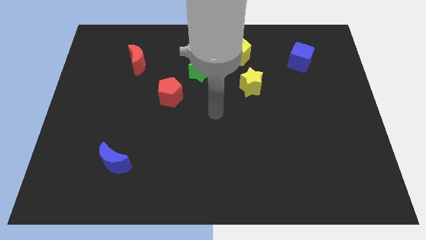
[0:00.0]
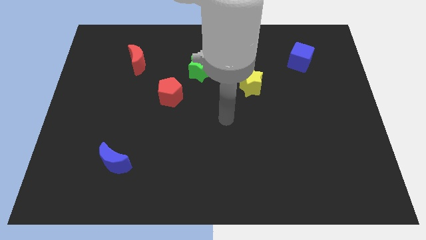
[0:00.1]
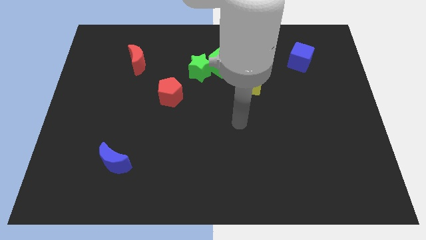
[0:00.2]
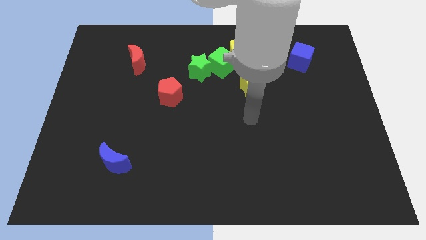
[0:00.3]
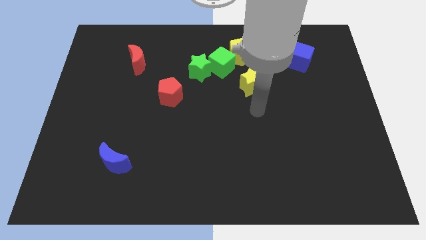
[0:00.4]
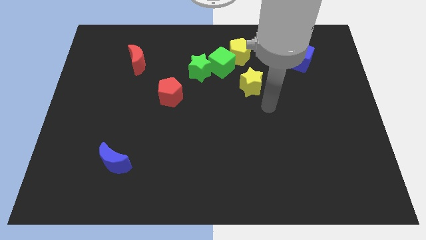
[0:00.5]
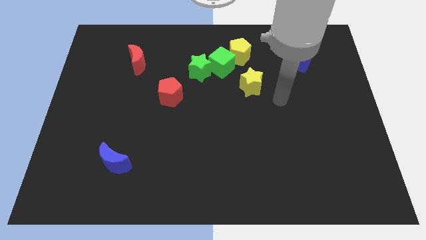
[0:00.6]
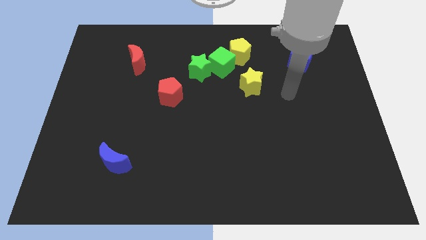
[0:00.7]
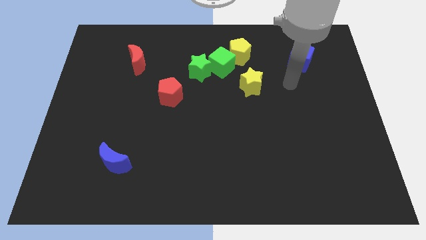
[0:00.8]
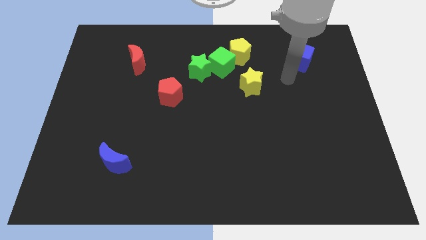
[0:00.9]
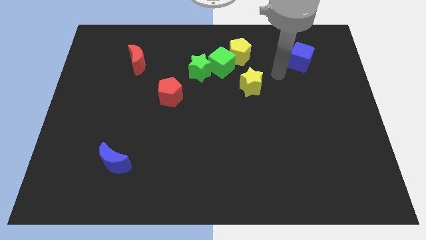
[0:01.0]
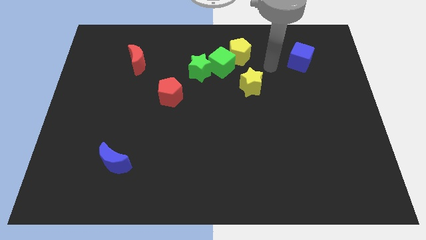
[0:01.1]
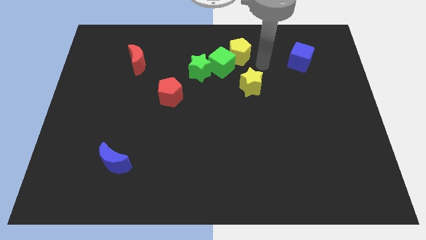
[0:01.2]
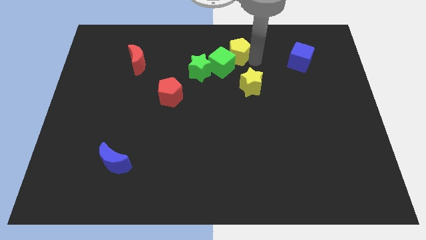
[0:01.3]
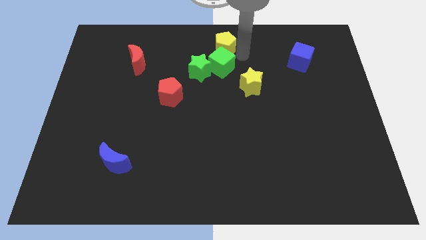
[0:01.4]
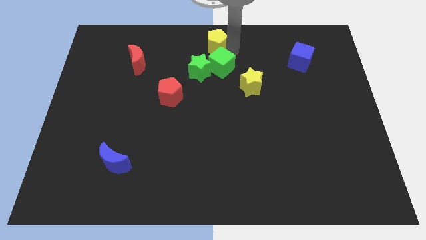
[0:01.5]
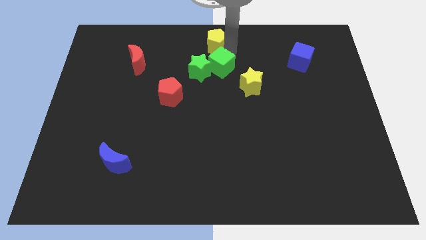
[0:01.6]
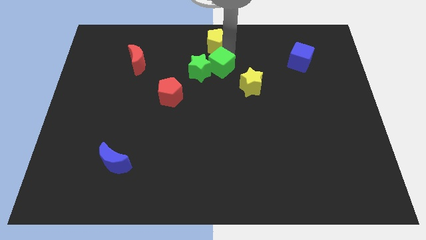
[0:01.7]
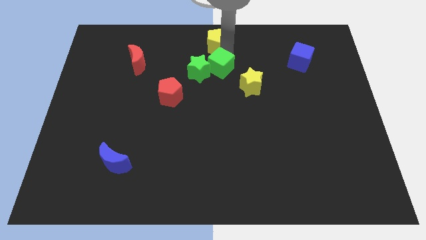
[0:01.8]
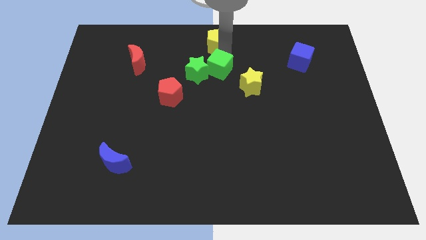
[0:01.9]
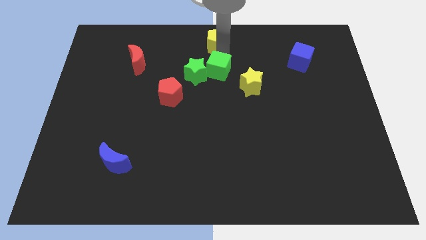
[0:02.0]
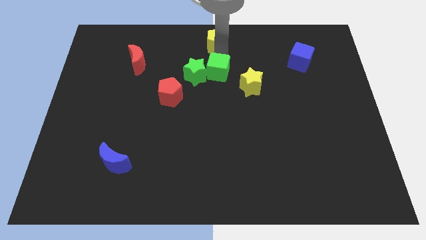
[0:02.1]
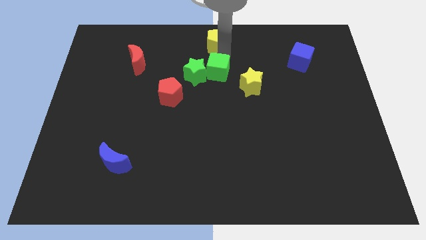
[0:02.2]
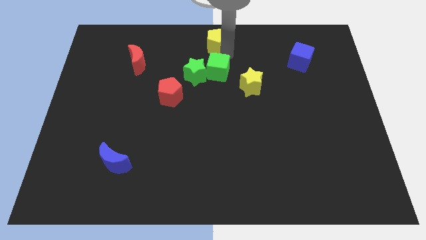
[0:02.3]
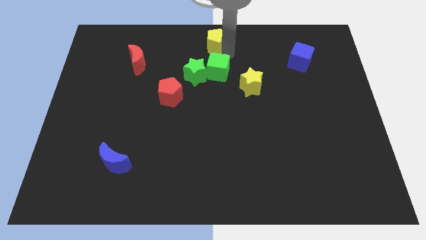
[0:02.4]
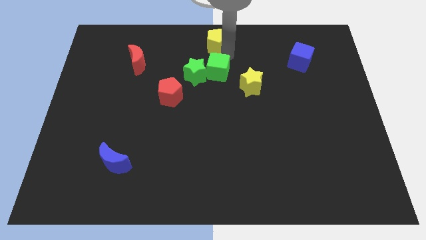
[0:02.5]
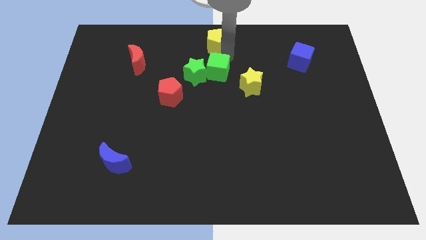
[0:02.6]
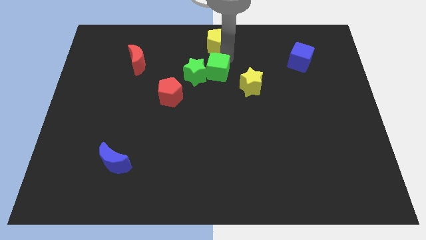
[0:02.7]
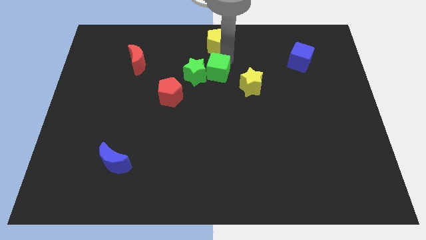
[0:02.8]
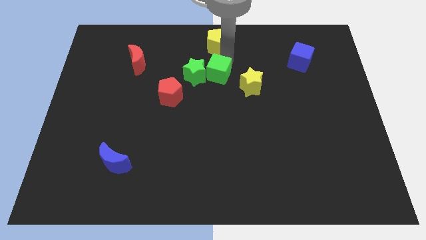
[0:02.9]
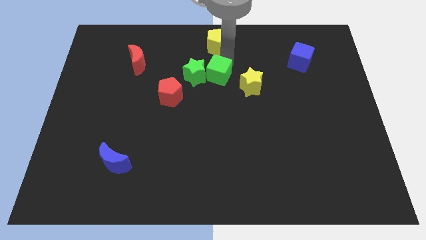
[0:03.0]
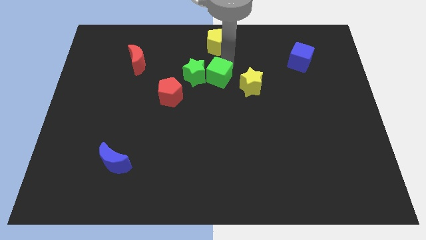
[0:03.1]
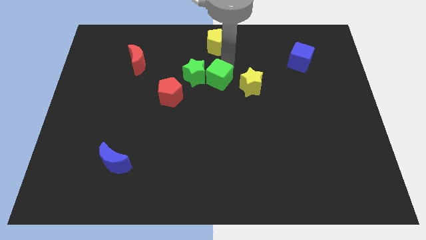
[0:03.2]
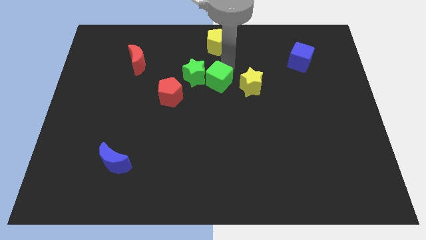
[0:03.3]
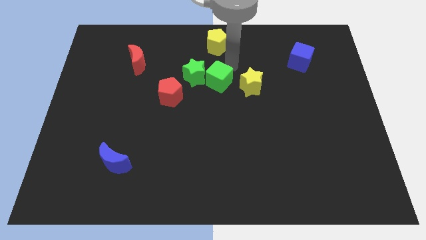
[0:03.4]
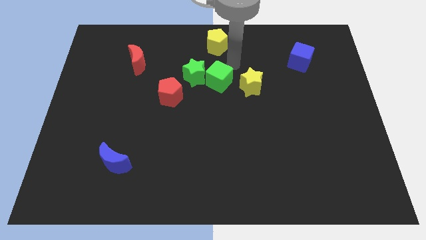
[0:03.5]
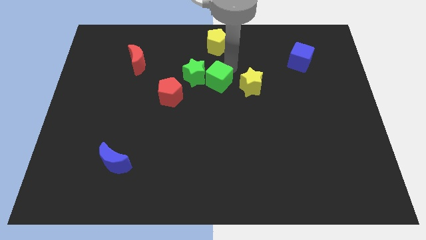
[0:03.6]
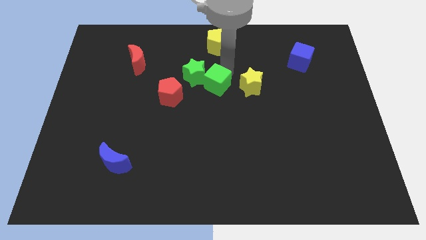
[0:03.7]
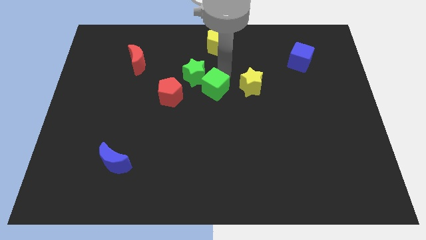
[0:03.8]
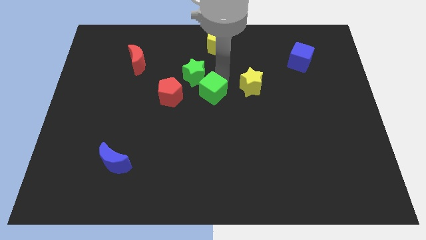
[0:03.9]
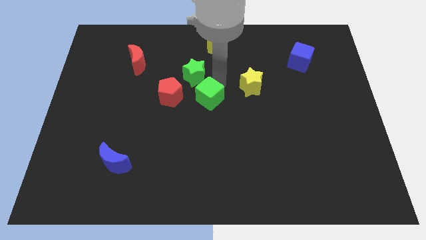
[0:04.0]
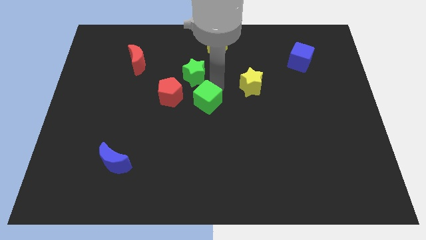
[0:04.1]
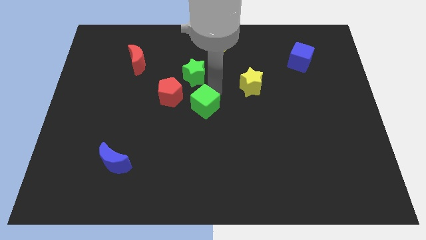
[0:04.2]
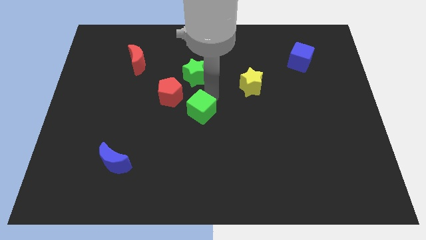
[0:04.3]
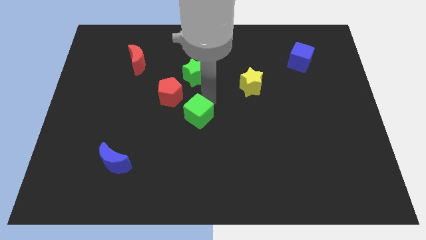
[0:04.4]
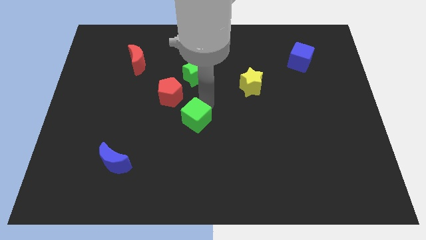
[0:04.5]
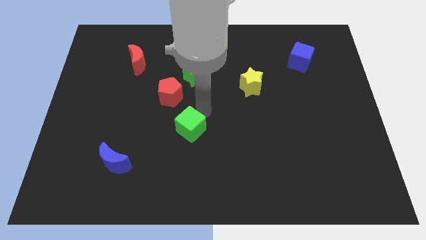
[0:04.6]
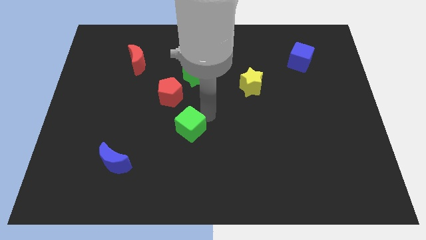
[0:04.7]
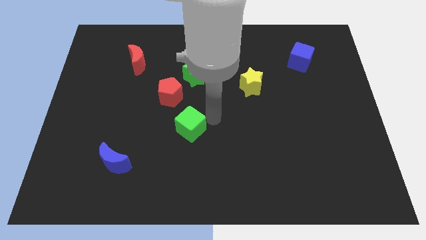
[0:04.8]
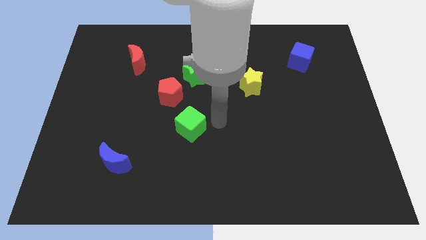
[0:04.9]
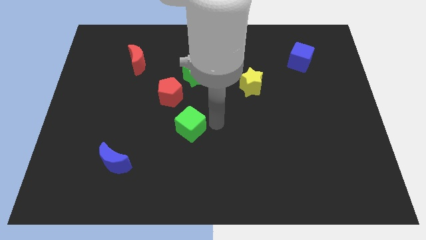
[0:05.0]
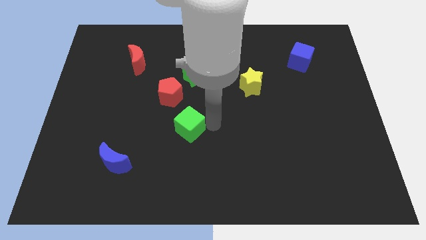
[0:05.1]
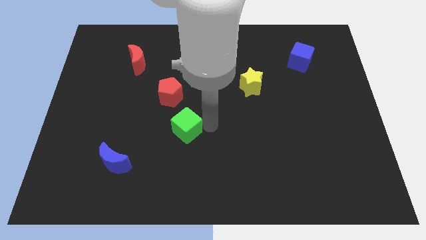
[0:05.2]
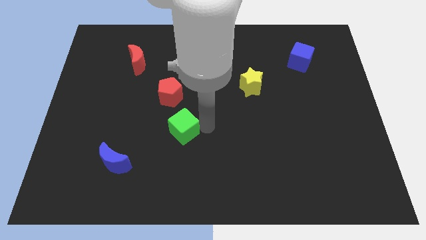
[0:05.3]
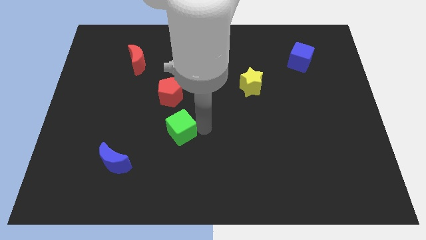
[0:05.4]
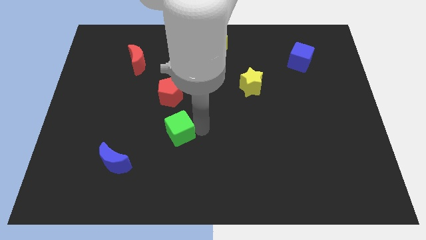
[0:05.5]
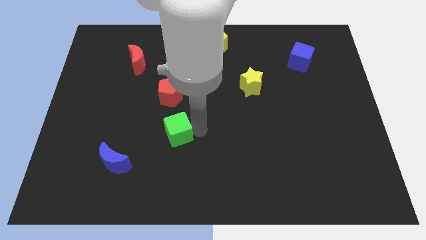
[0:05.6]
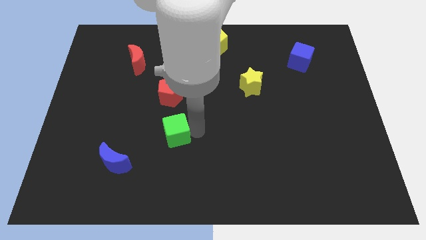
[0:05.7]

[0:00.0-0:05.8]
push the green cube downwards and then to the left

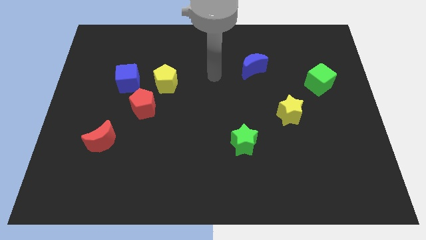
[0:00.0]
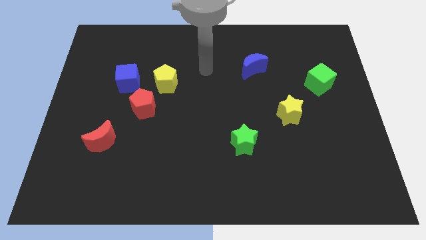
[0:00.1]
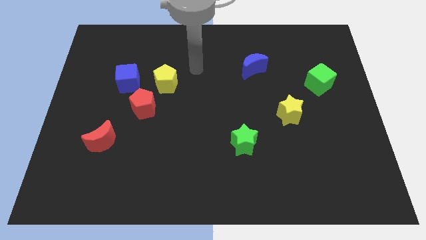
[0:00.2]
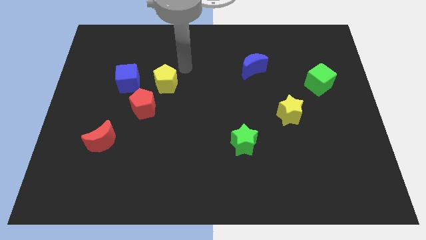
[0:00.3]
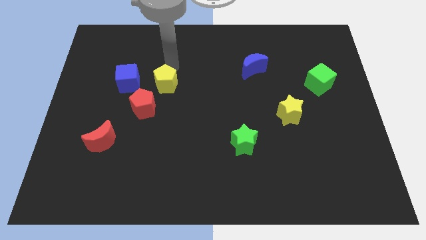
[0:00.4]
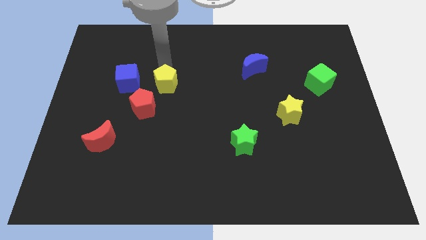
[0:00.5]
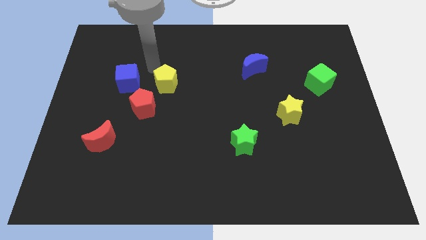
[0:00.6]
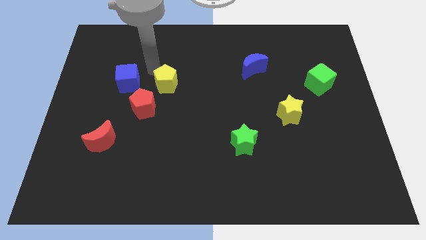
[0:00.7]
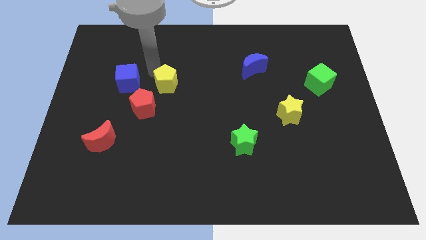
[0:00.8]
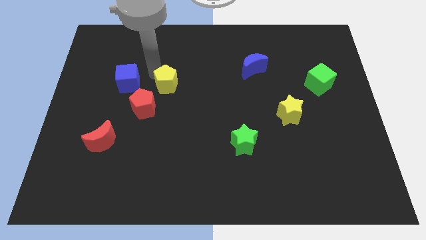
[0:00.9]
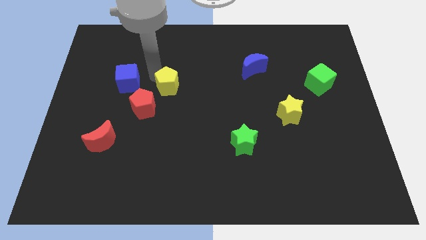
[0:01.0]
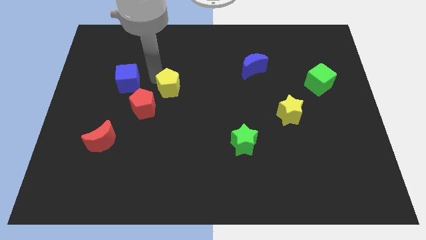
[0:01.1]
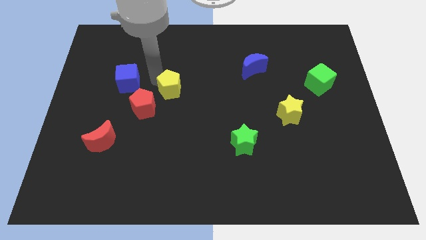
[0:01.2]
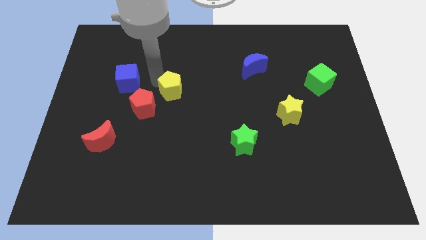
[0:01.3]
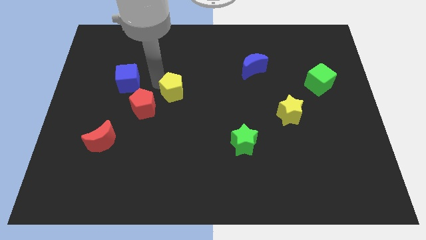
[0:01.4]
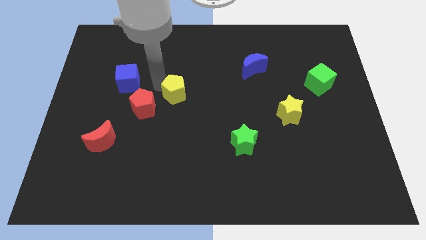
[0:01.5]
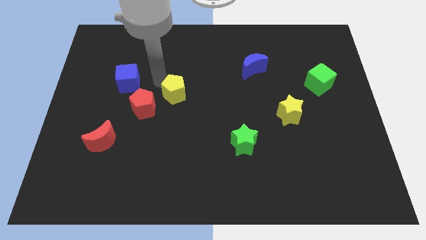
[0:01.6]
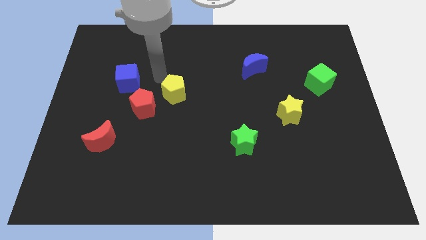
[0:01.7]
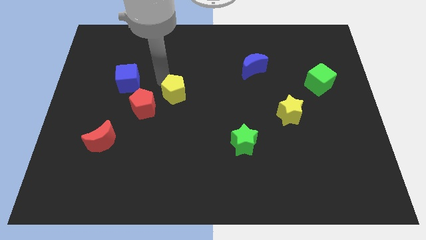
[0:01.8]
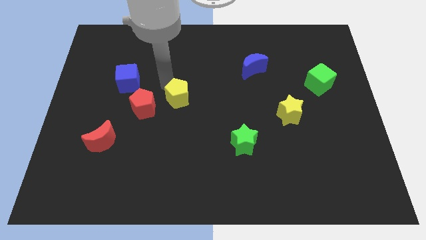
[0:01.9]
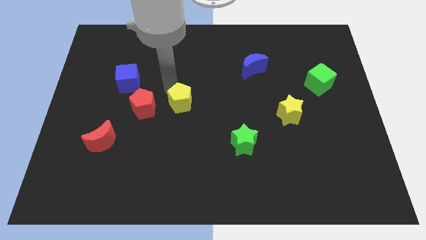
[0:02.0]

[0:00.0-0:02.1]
slide the yellow pentagon a bit downwards and to the right
